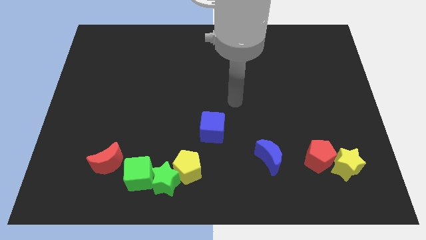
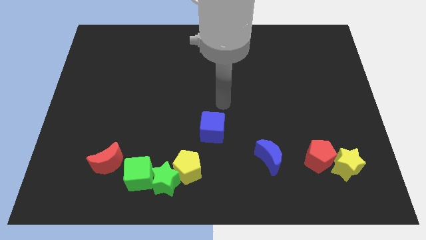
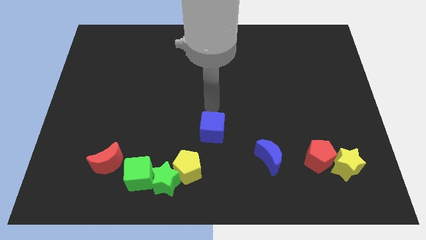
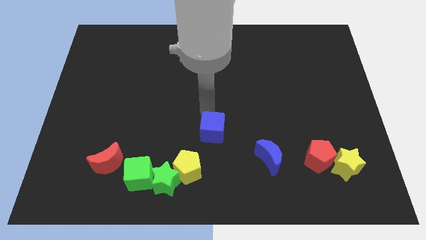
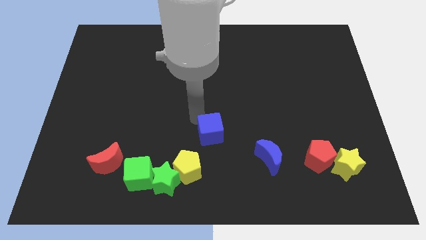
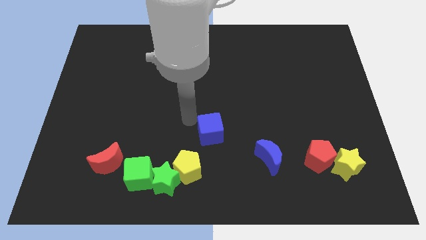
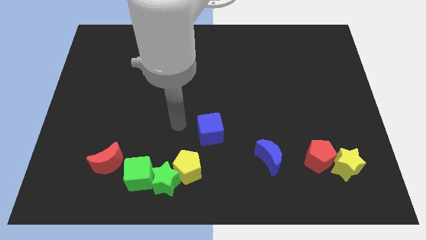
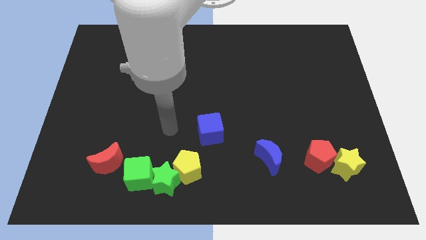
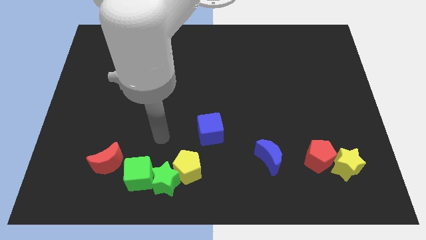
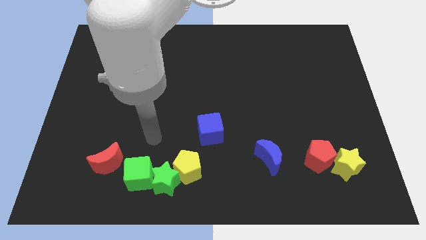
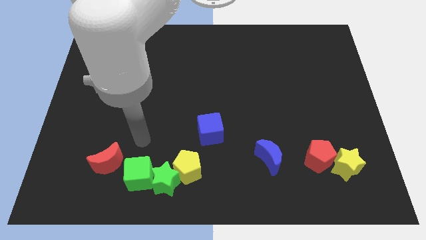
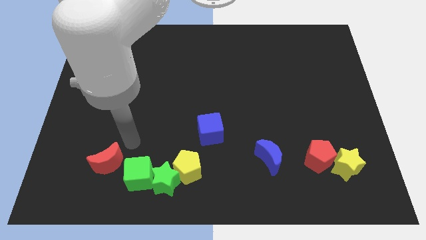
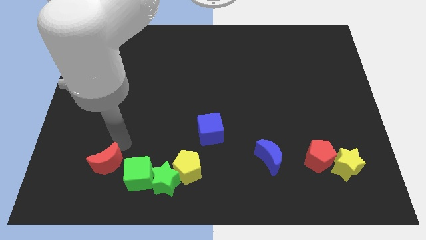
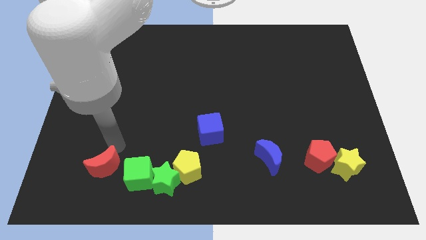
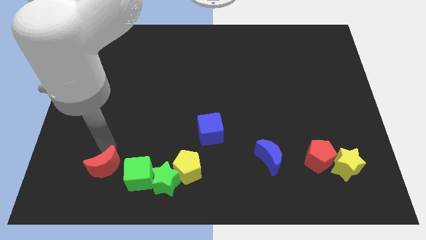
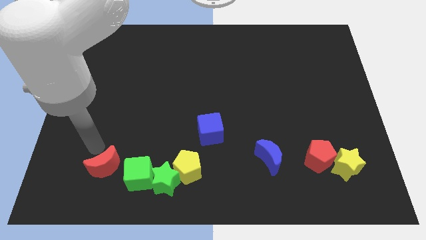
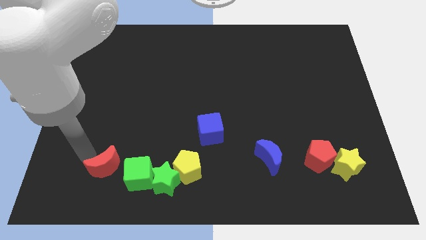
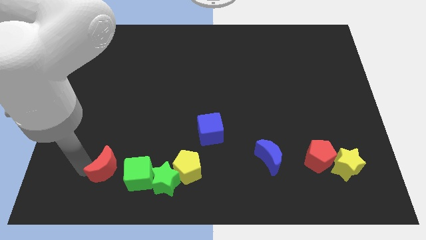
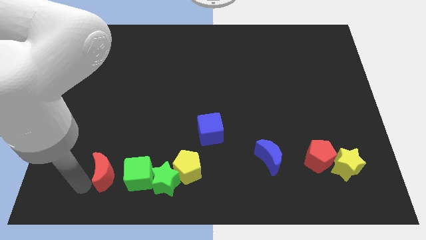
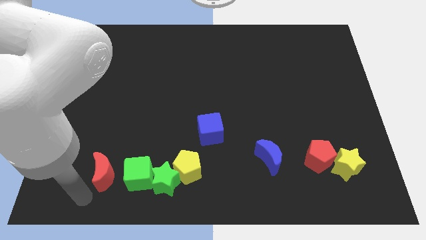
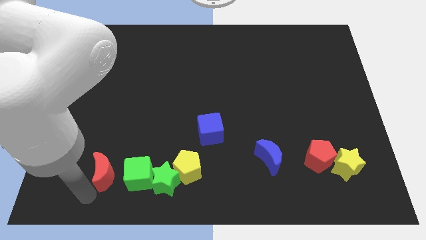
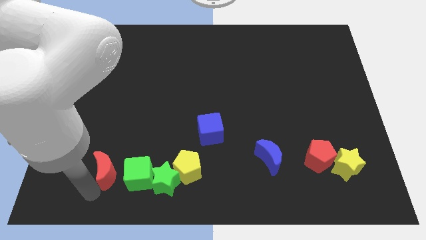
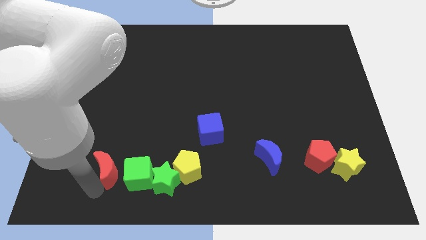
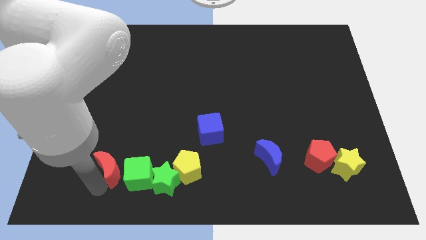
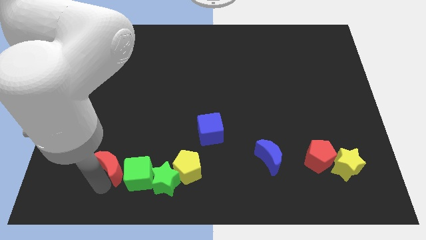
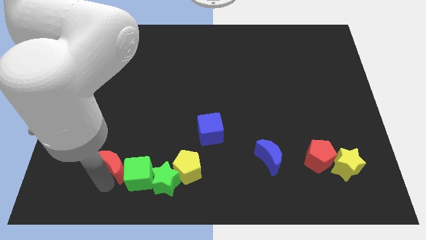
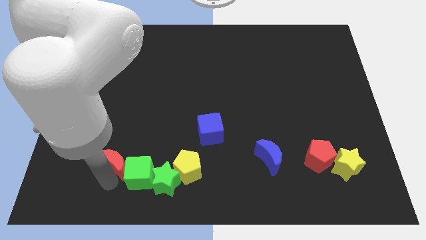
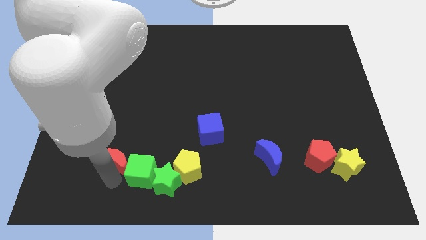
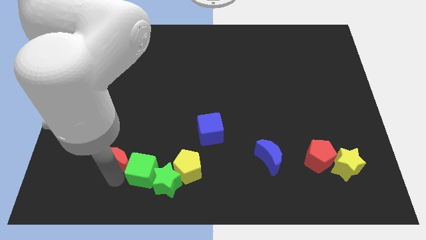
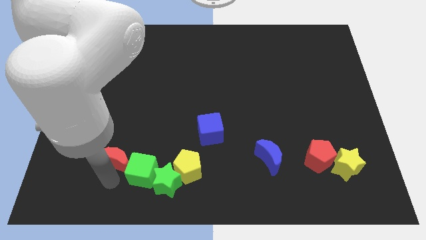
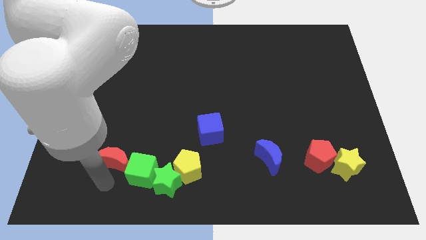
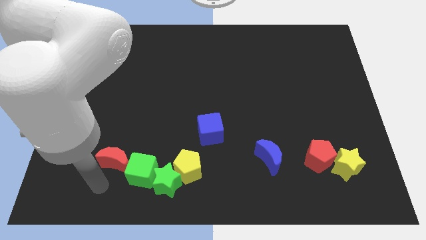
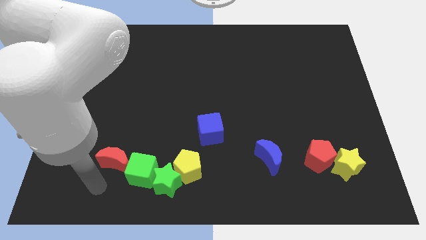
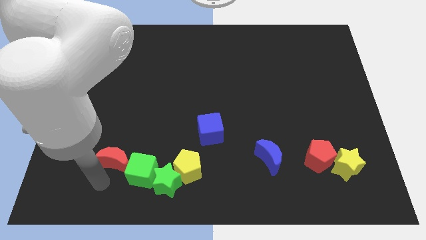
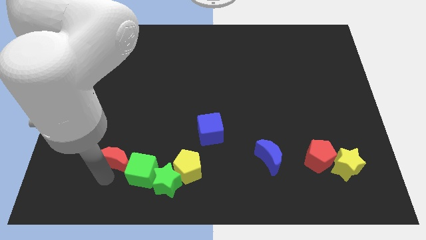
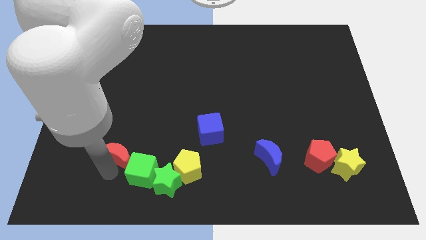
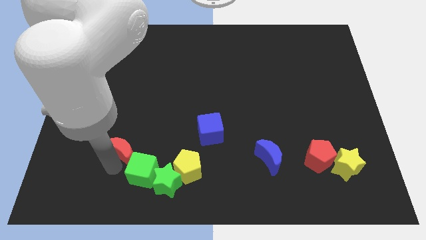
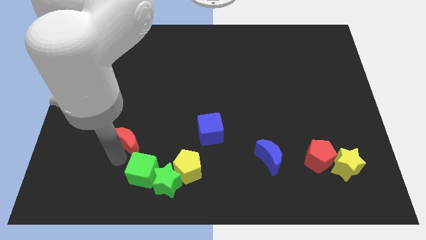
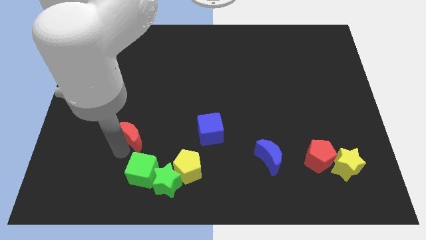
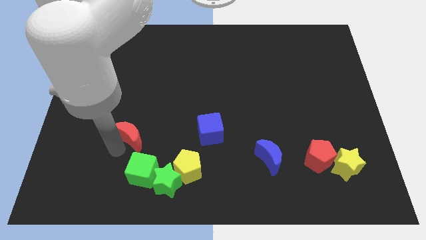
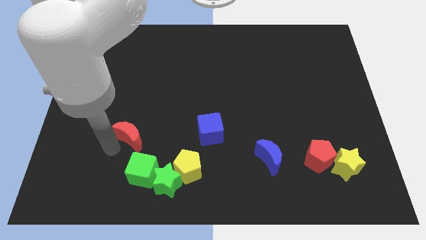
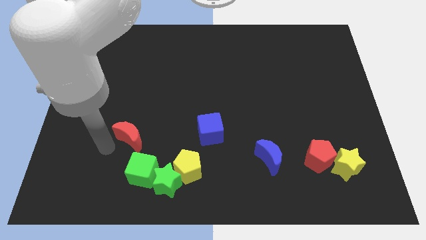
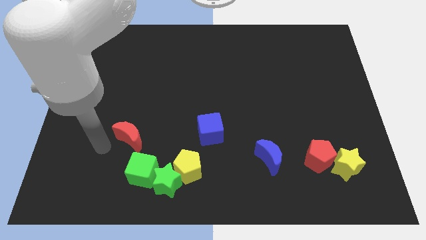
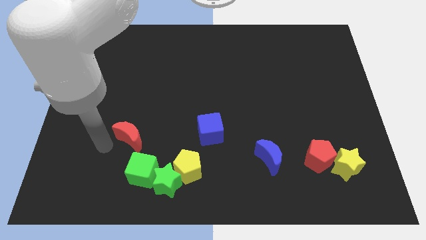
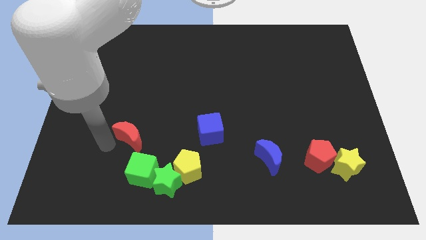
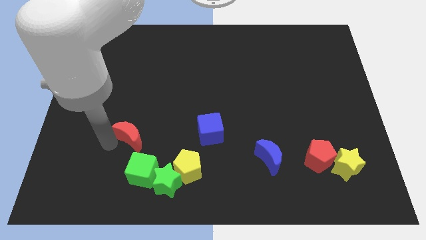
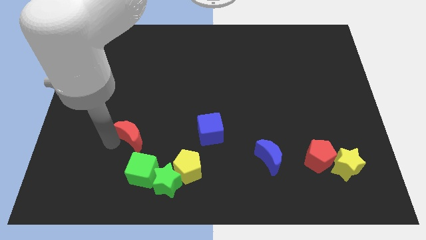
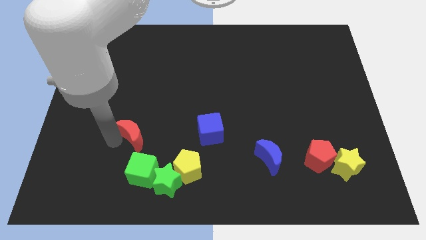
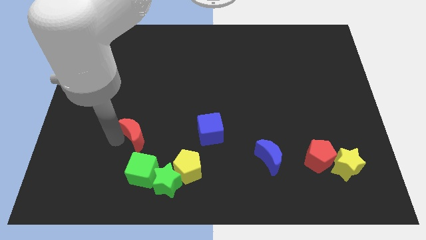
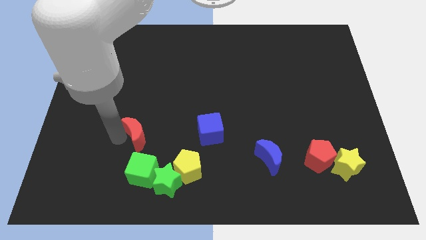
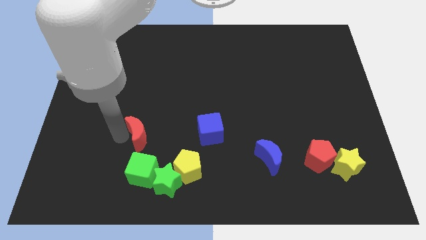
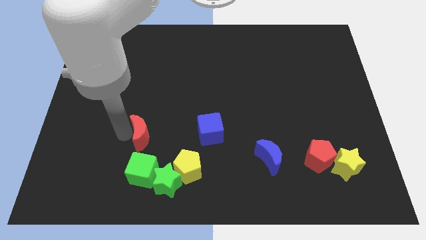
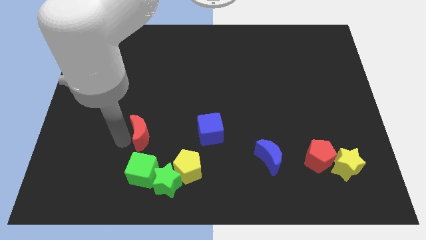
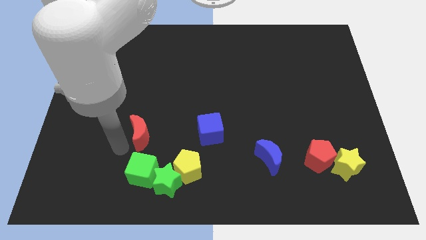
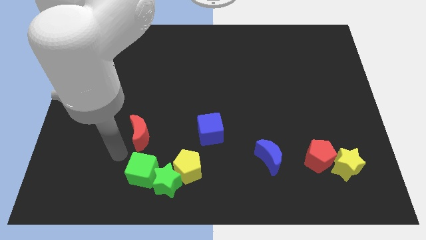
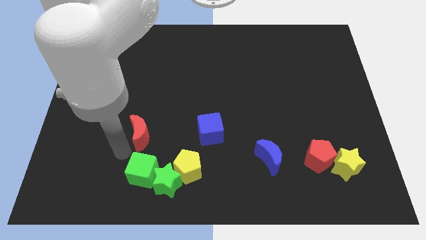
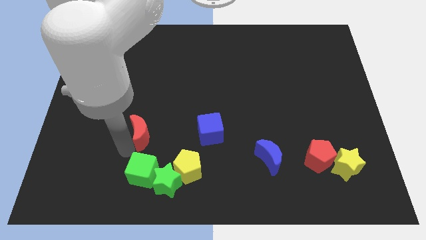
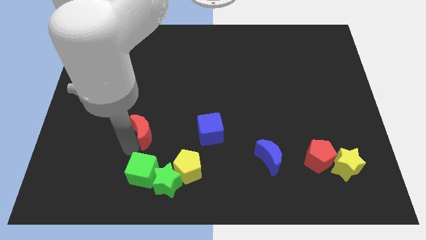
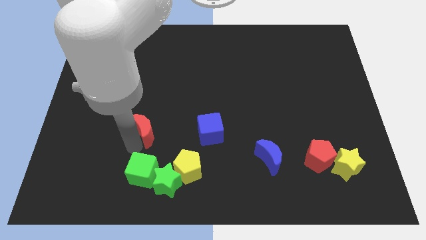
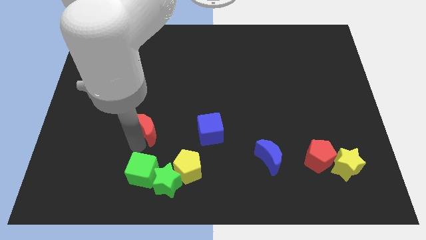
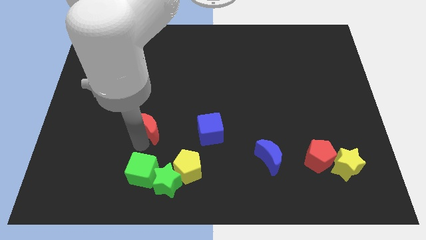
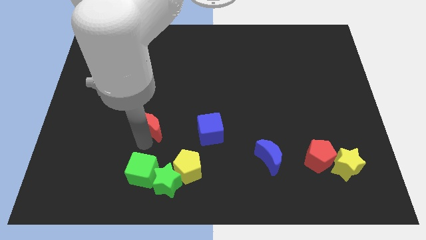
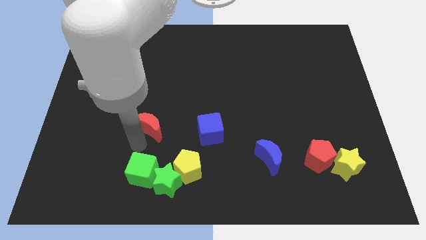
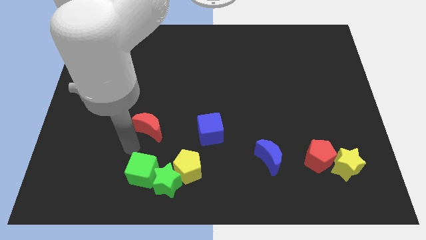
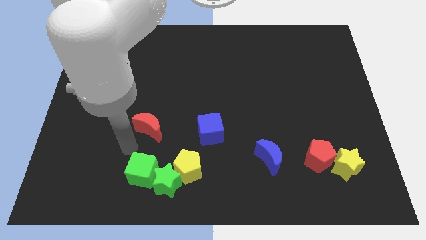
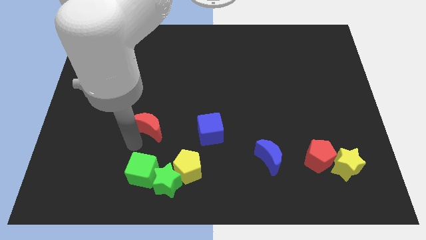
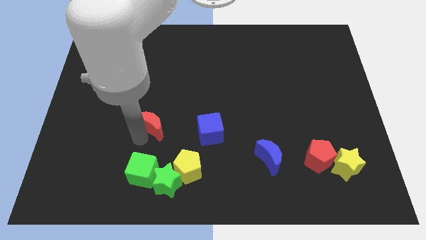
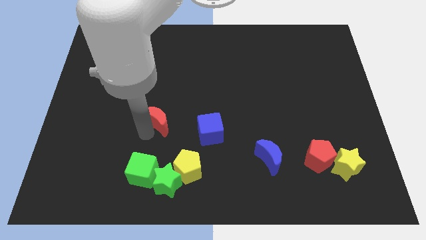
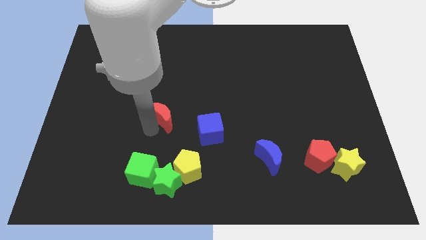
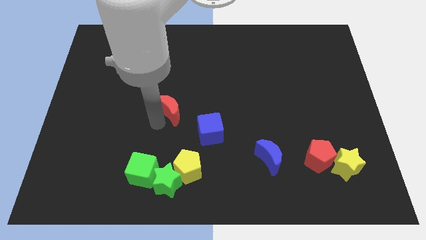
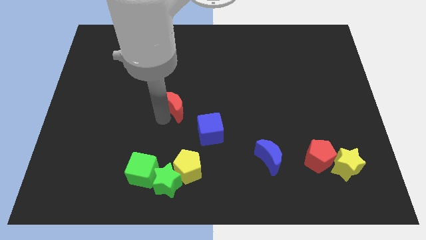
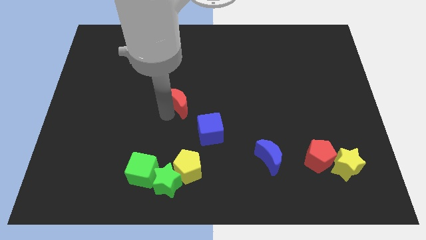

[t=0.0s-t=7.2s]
slide the red moon upwards and to the right diagonally

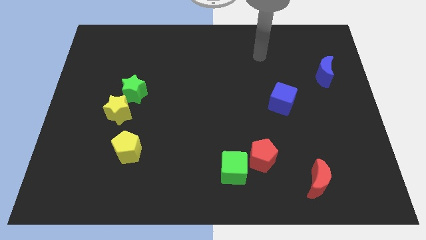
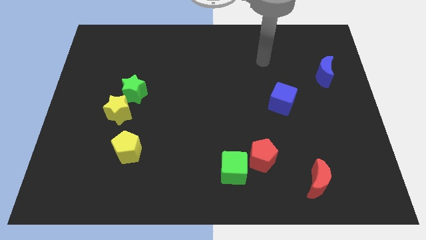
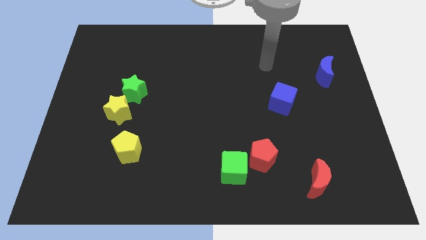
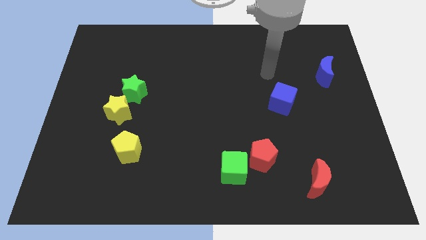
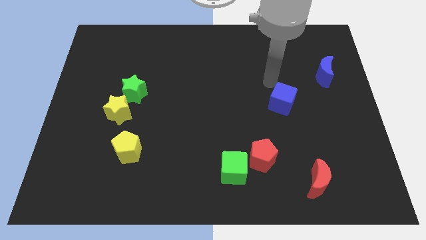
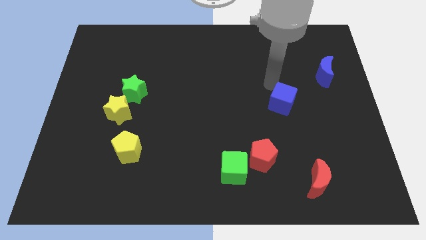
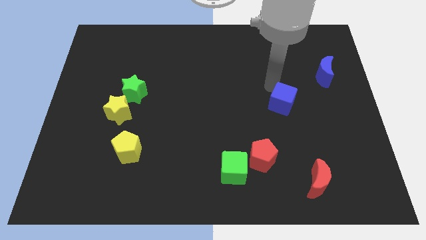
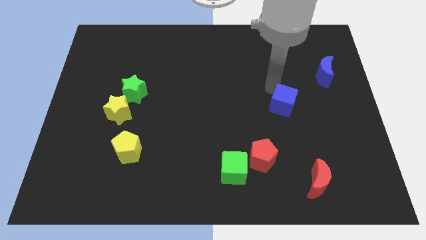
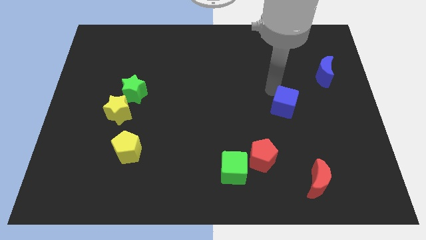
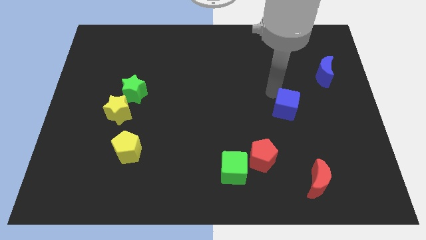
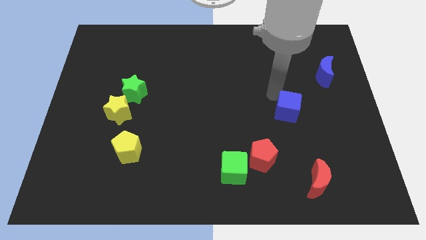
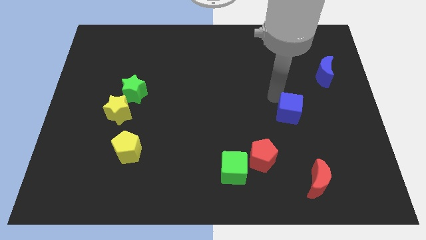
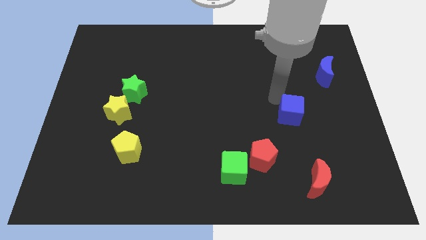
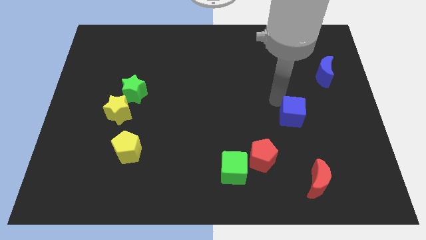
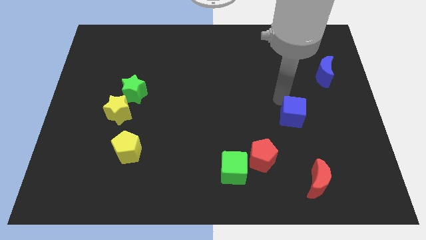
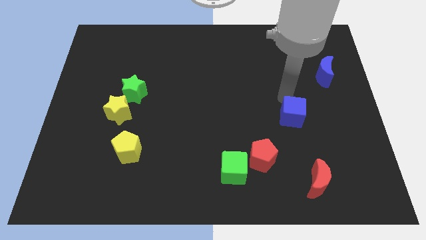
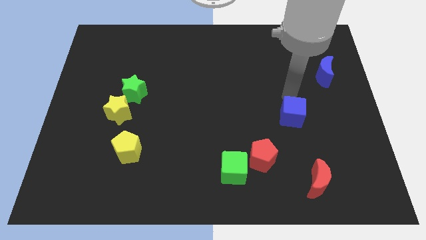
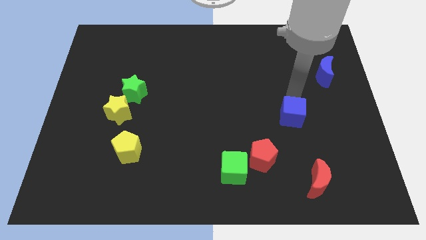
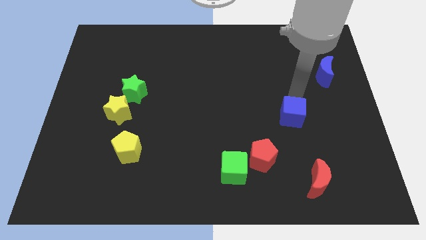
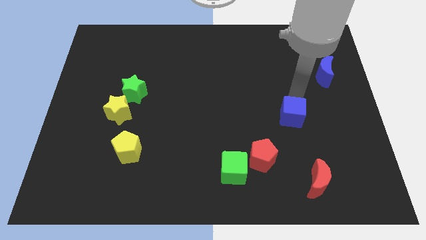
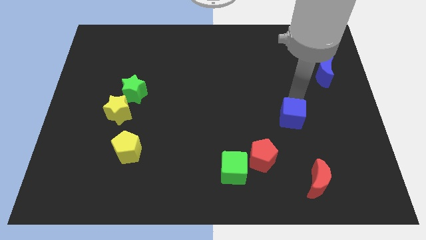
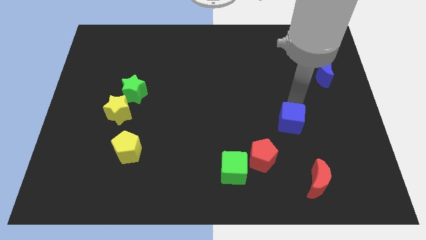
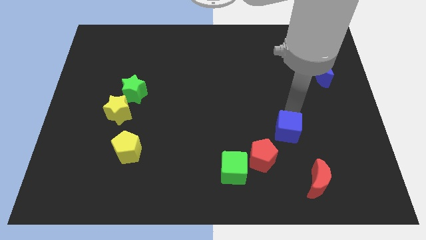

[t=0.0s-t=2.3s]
push the blue cube downwards slightly
